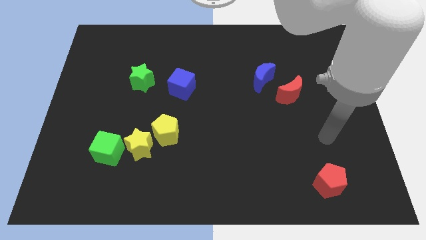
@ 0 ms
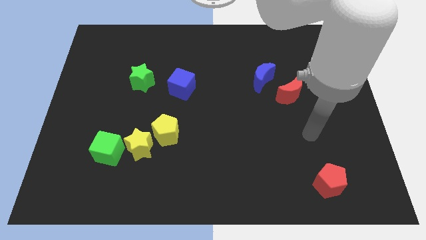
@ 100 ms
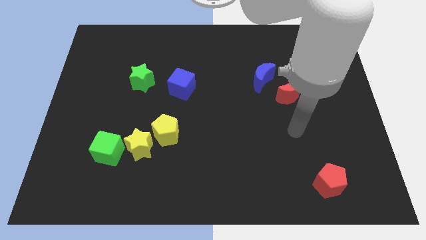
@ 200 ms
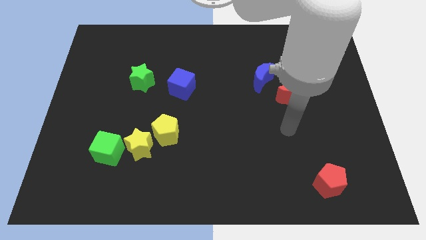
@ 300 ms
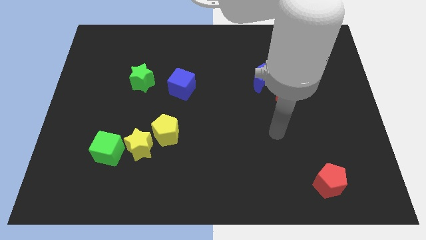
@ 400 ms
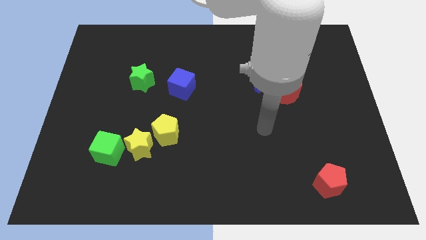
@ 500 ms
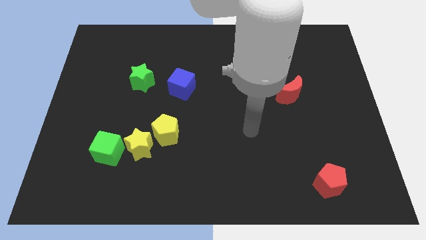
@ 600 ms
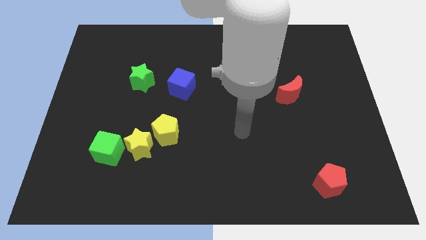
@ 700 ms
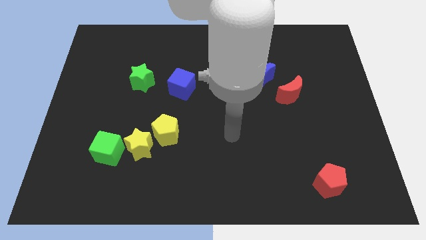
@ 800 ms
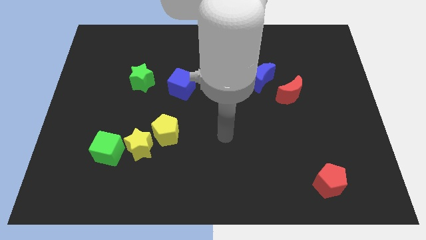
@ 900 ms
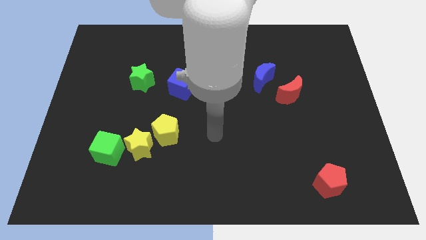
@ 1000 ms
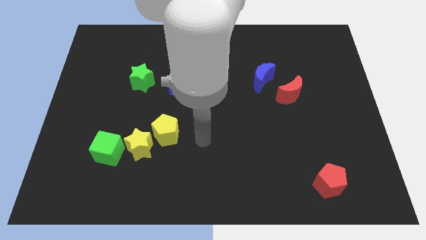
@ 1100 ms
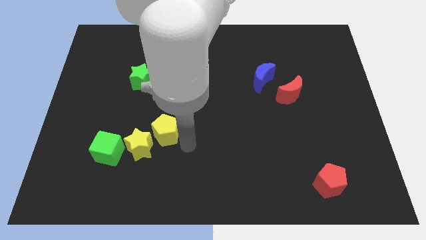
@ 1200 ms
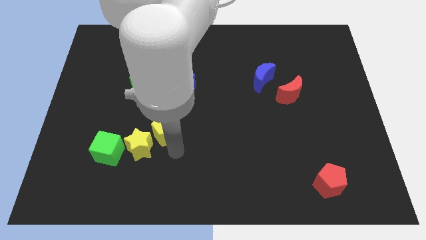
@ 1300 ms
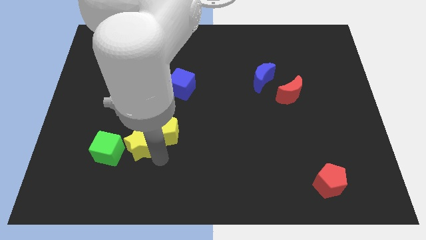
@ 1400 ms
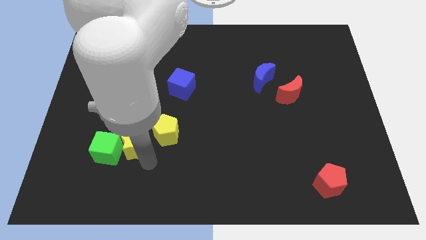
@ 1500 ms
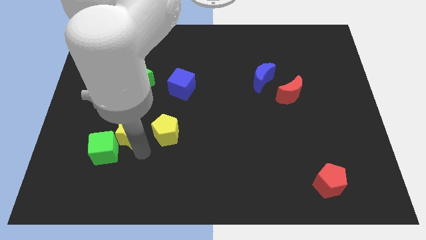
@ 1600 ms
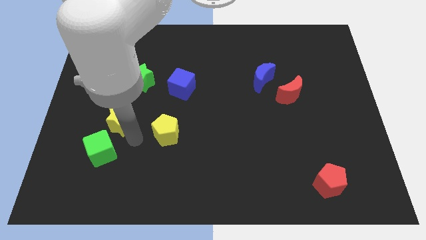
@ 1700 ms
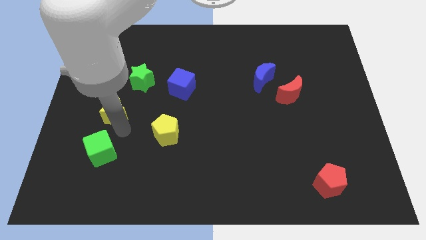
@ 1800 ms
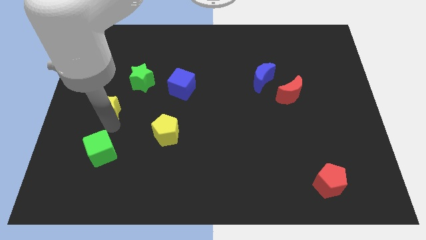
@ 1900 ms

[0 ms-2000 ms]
pull the green cube apart from the yellow star

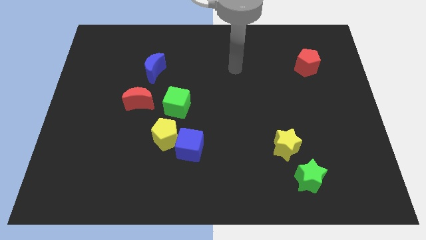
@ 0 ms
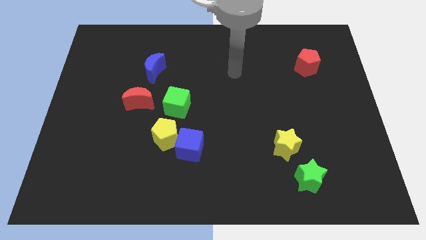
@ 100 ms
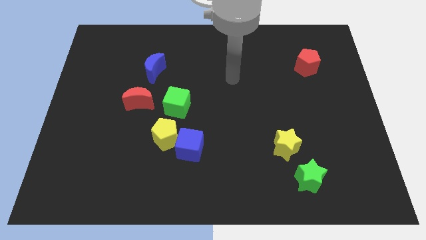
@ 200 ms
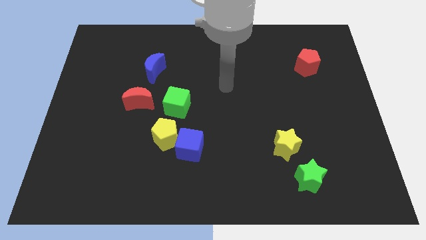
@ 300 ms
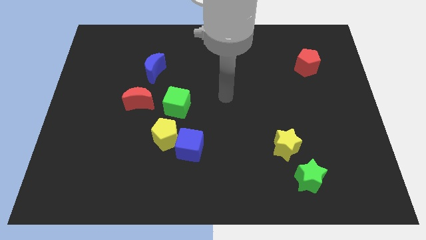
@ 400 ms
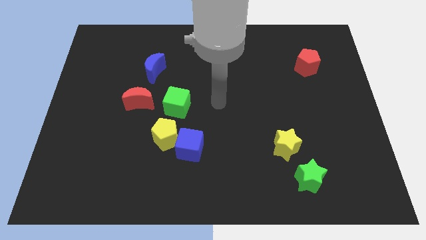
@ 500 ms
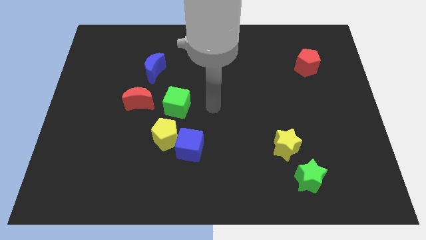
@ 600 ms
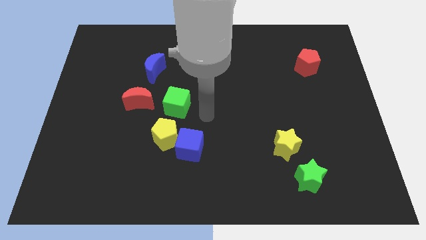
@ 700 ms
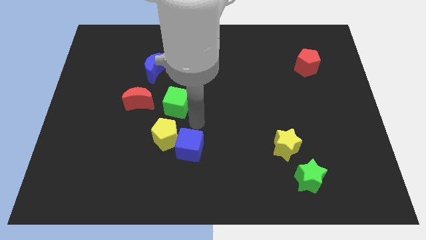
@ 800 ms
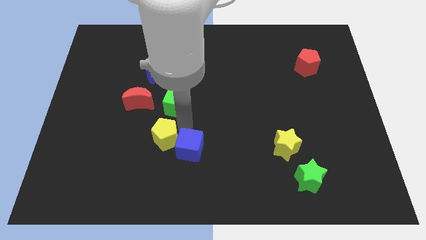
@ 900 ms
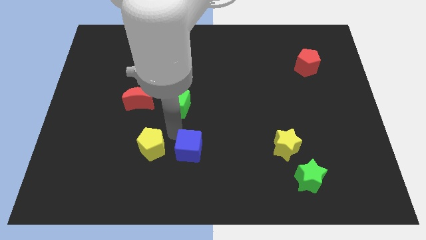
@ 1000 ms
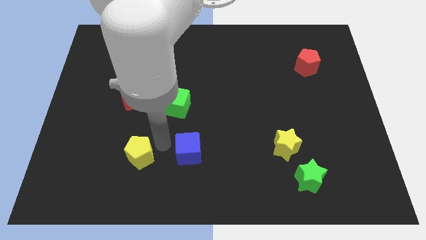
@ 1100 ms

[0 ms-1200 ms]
separate the blue cube from the yellow pentagon

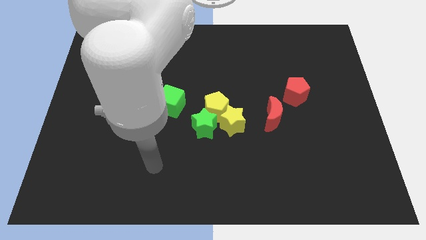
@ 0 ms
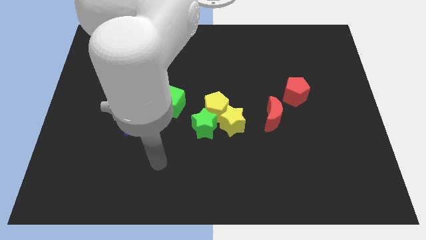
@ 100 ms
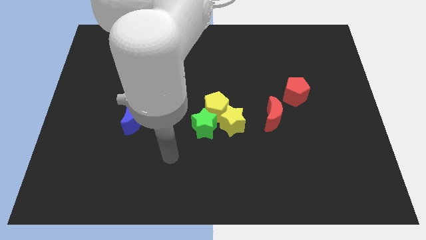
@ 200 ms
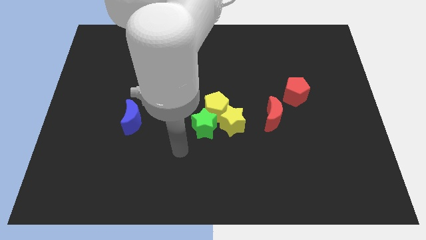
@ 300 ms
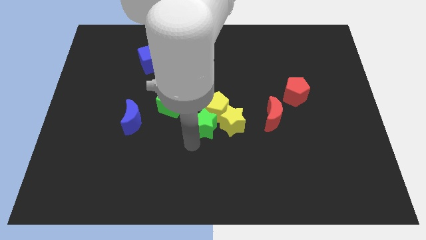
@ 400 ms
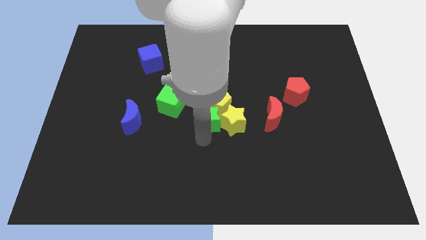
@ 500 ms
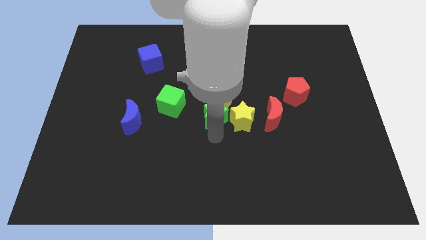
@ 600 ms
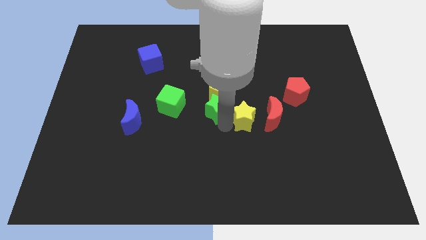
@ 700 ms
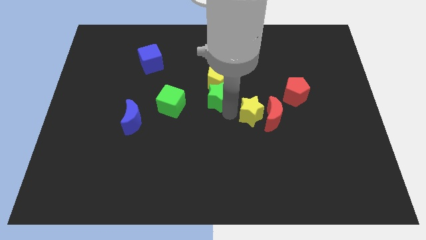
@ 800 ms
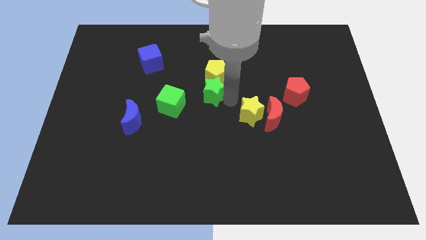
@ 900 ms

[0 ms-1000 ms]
separate the yellow pentagon from the yellow star and green star

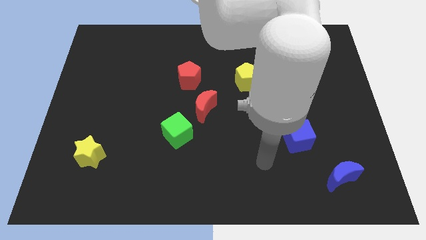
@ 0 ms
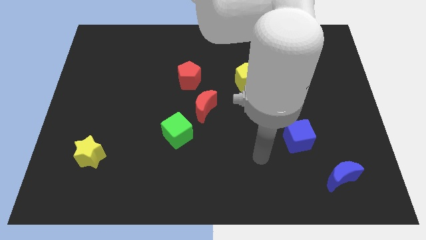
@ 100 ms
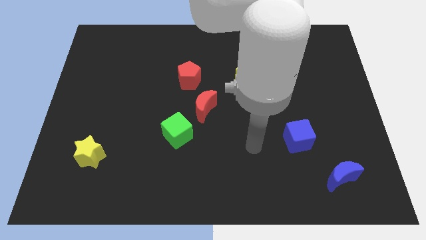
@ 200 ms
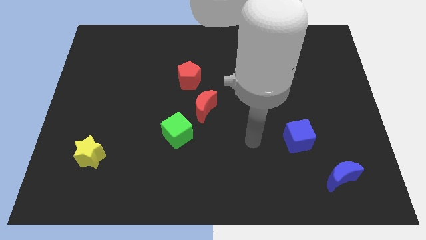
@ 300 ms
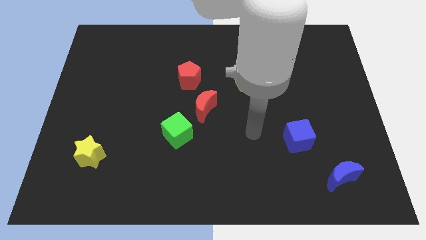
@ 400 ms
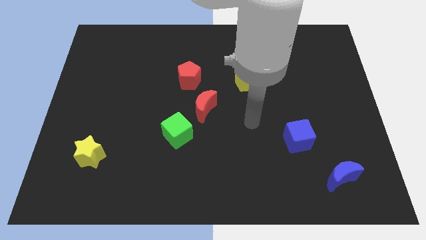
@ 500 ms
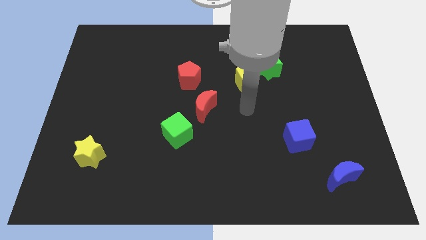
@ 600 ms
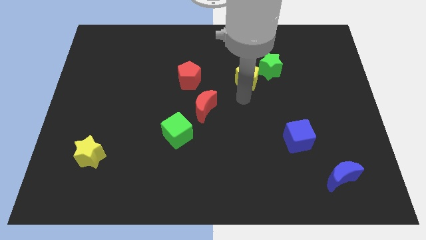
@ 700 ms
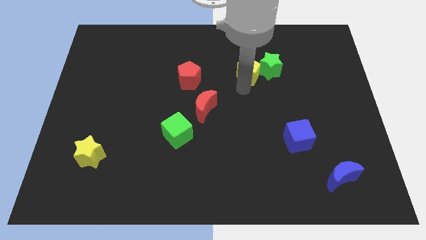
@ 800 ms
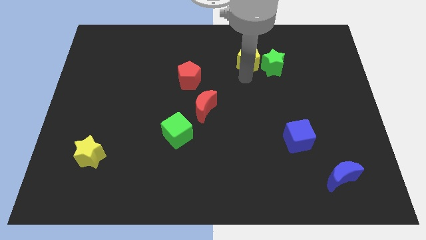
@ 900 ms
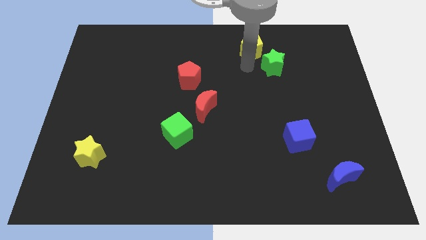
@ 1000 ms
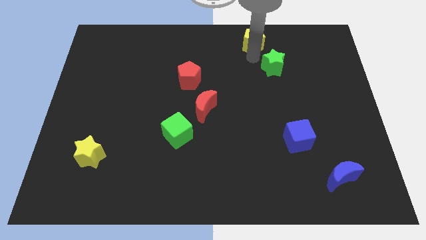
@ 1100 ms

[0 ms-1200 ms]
pull the green star apart from the yellow pentagon

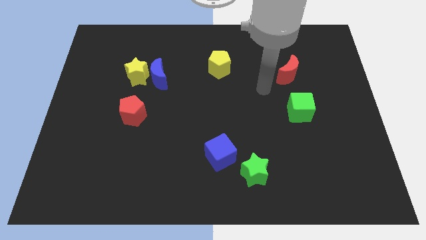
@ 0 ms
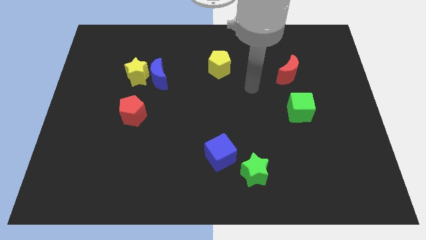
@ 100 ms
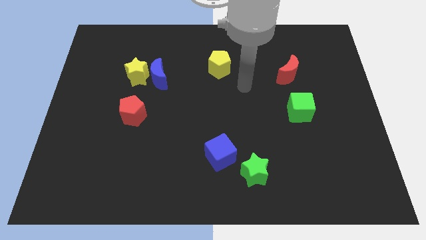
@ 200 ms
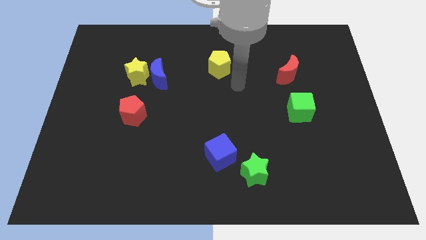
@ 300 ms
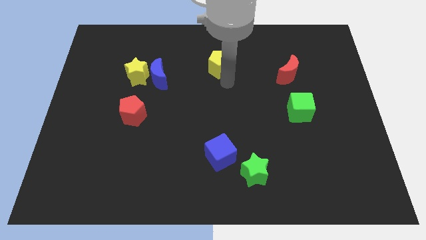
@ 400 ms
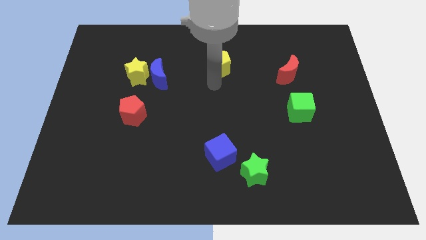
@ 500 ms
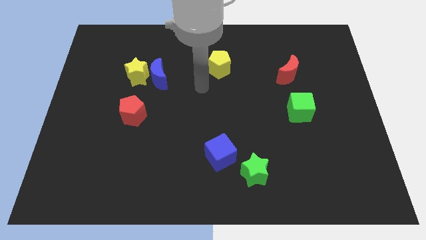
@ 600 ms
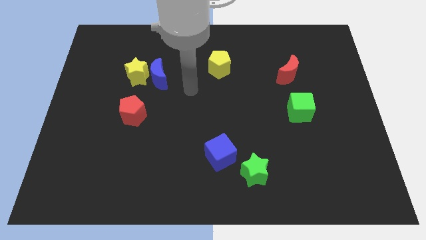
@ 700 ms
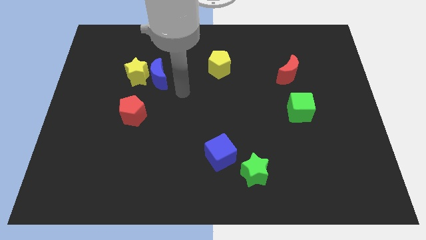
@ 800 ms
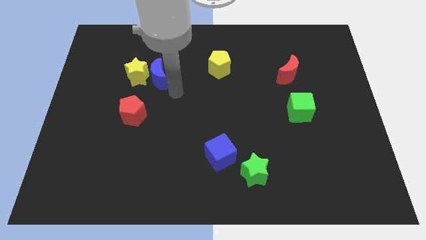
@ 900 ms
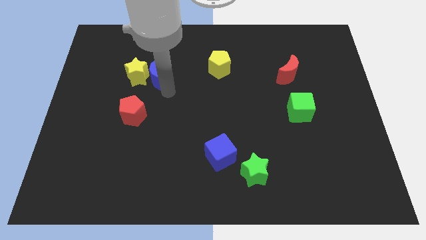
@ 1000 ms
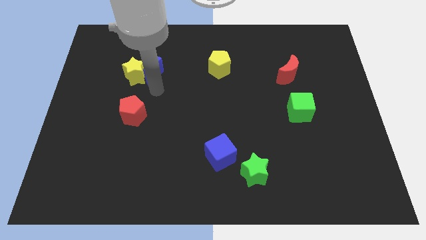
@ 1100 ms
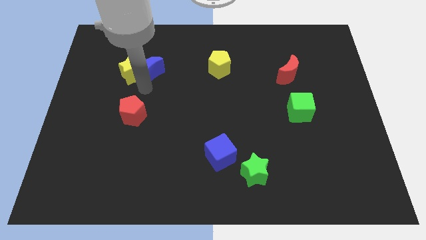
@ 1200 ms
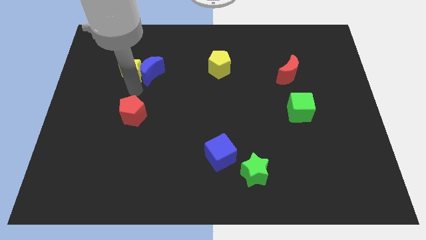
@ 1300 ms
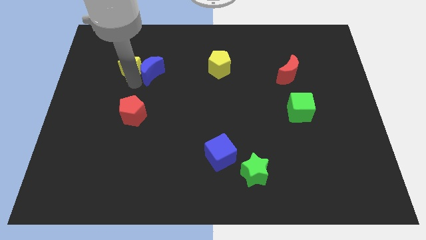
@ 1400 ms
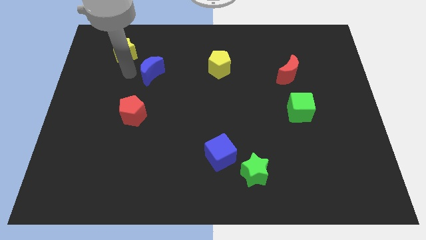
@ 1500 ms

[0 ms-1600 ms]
pull the blue moon apart from the yellow star

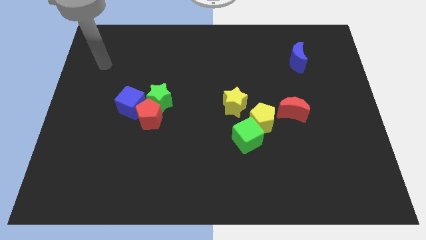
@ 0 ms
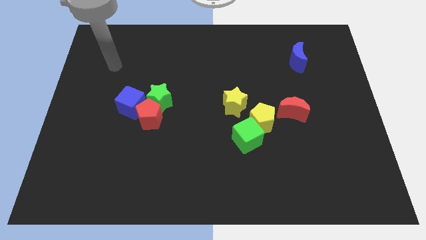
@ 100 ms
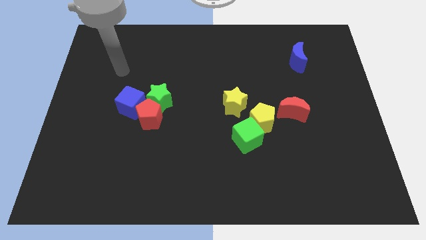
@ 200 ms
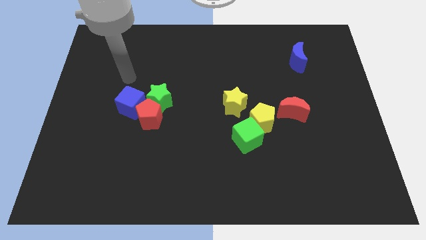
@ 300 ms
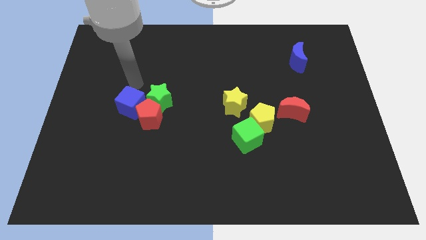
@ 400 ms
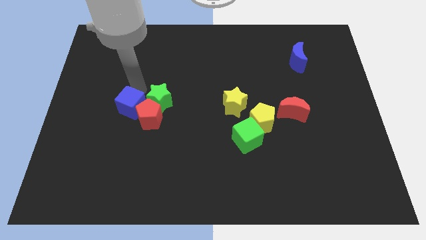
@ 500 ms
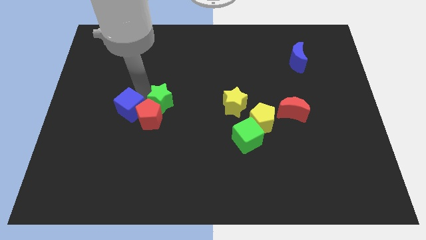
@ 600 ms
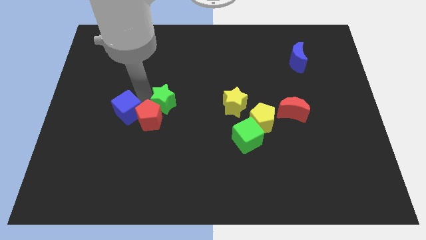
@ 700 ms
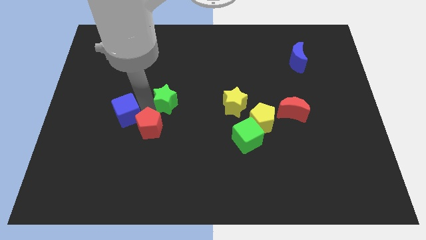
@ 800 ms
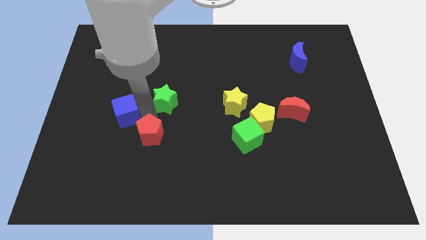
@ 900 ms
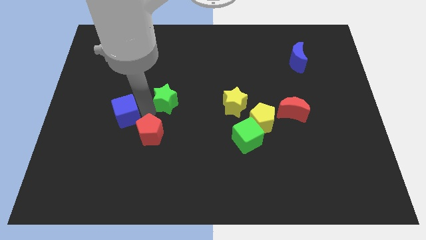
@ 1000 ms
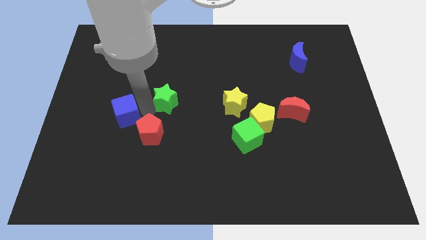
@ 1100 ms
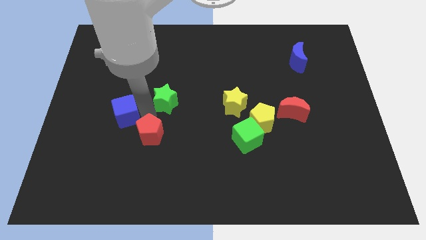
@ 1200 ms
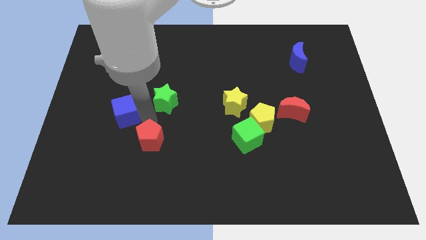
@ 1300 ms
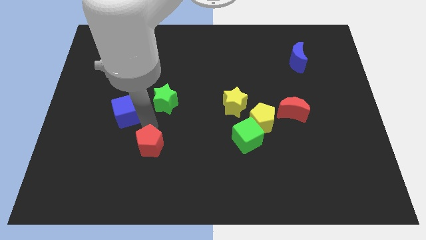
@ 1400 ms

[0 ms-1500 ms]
pull the red pentagon apart from the green star and blue cube

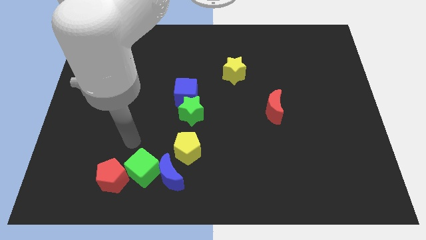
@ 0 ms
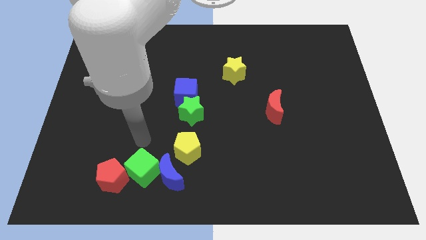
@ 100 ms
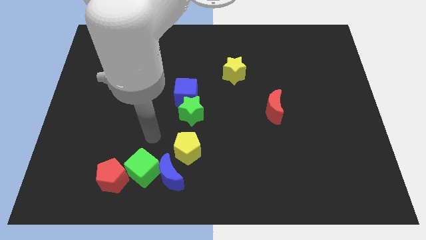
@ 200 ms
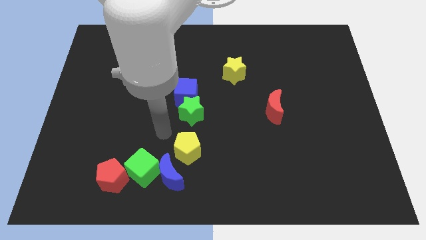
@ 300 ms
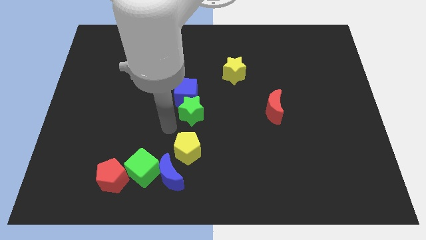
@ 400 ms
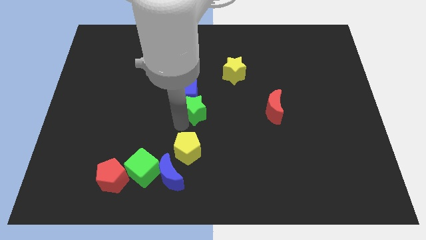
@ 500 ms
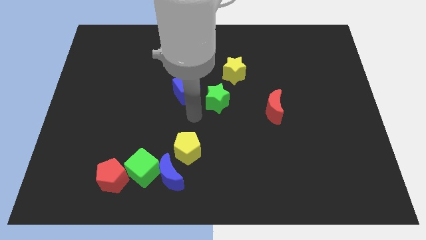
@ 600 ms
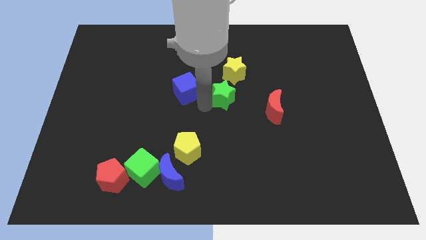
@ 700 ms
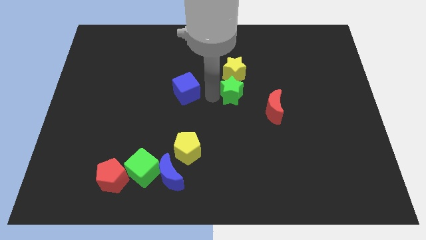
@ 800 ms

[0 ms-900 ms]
move the blue cube away from the green star
